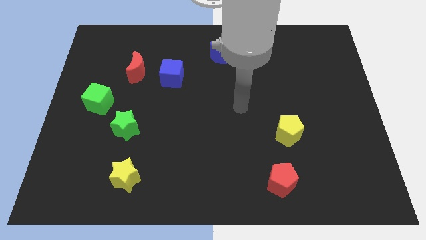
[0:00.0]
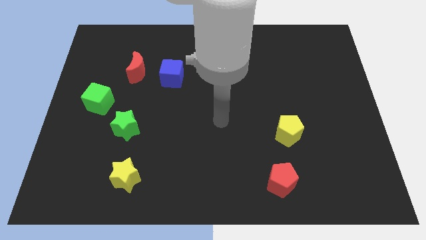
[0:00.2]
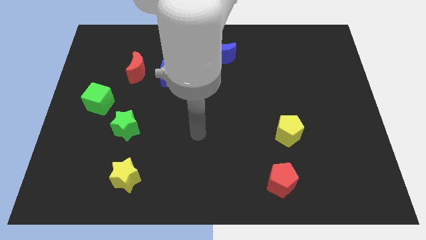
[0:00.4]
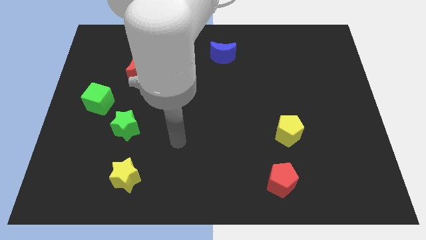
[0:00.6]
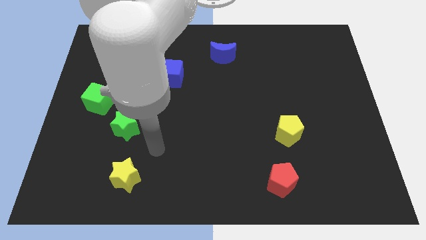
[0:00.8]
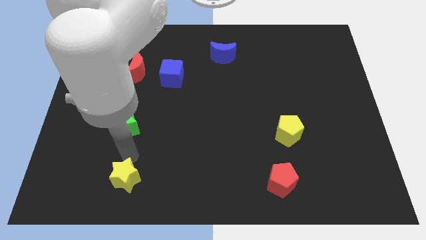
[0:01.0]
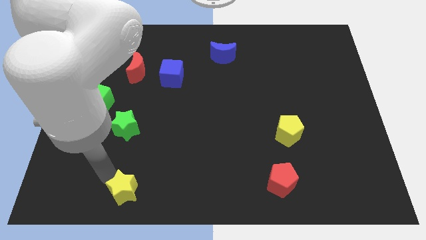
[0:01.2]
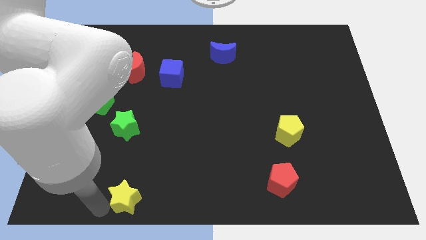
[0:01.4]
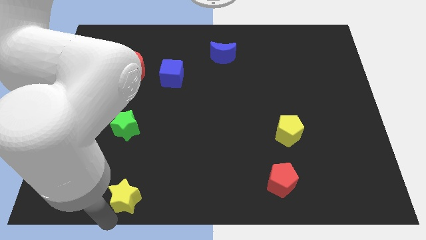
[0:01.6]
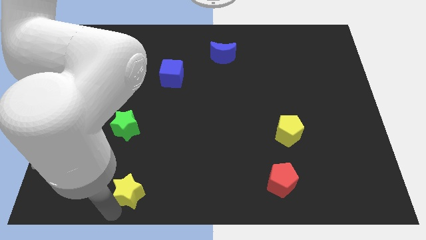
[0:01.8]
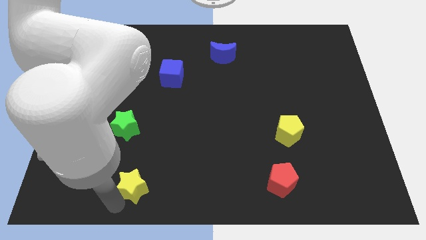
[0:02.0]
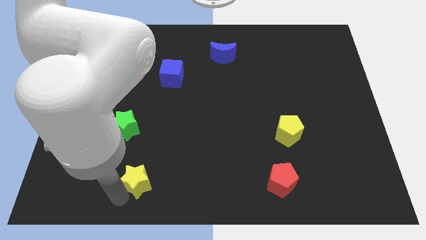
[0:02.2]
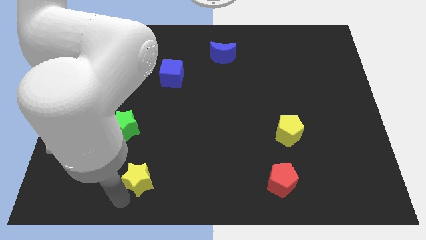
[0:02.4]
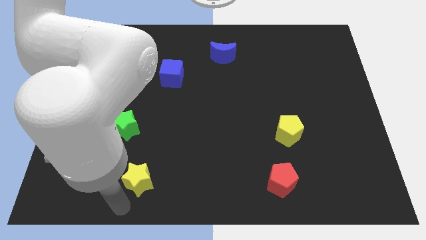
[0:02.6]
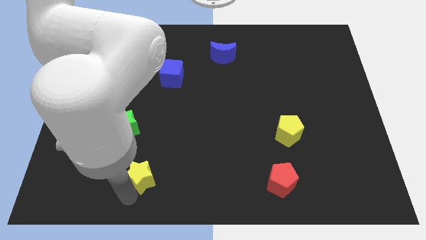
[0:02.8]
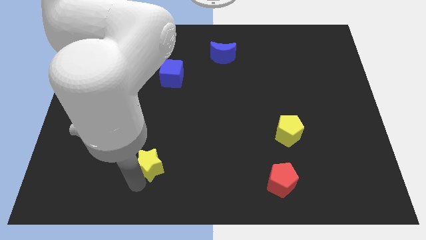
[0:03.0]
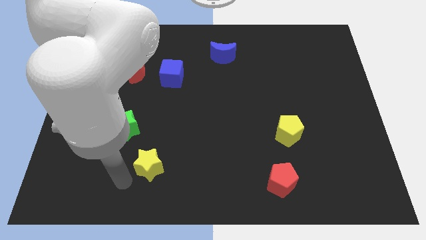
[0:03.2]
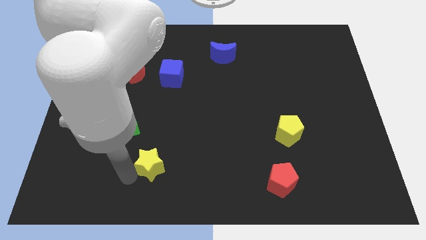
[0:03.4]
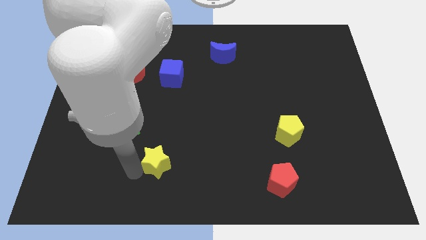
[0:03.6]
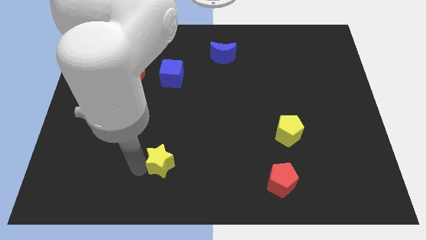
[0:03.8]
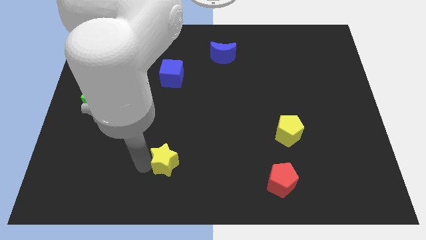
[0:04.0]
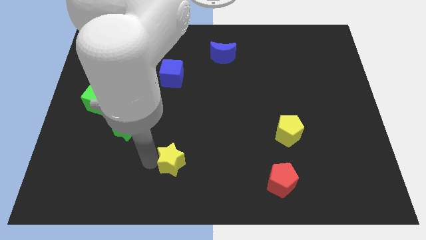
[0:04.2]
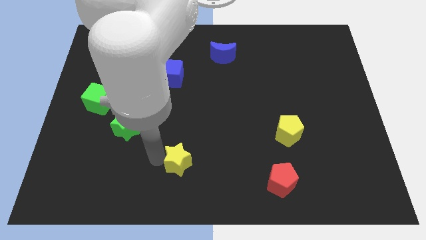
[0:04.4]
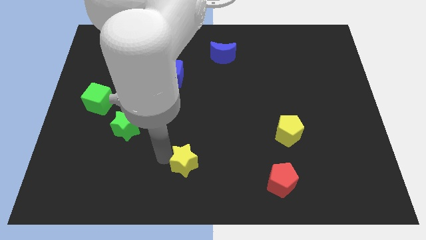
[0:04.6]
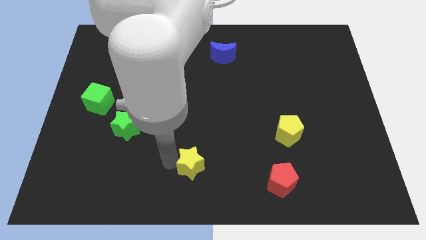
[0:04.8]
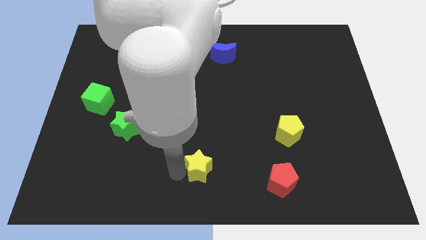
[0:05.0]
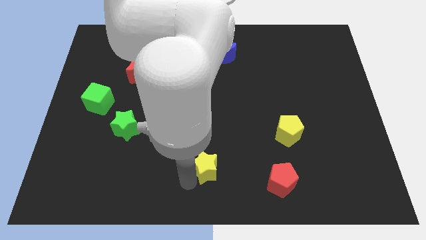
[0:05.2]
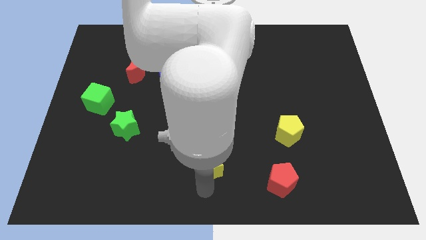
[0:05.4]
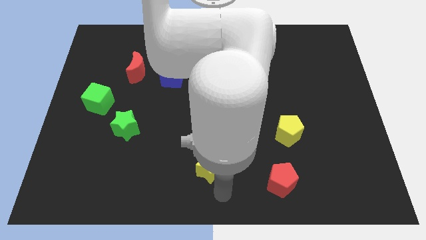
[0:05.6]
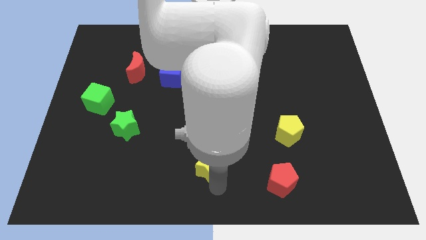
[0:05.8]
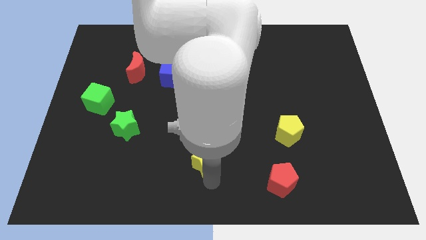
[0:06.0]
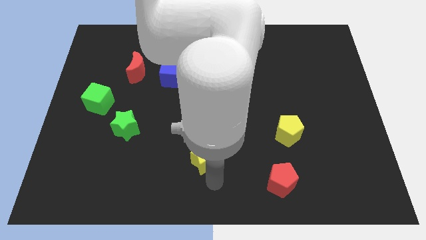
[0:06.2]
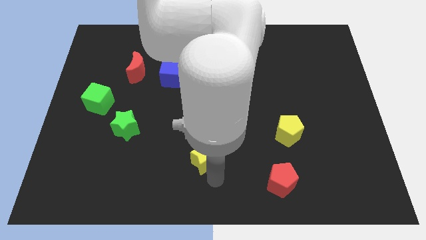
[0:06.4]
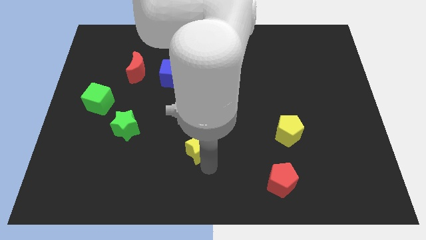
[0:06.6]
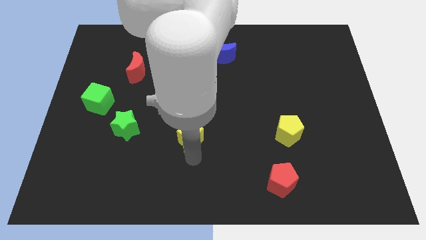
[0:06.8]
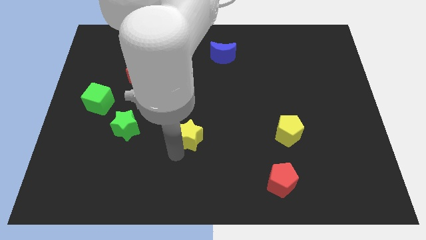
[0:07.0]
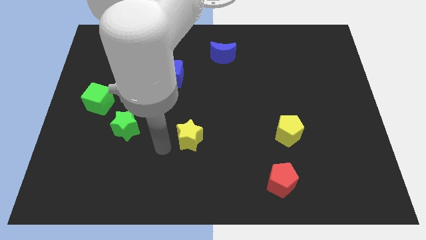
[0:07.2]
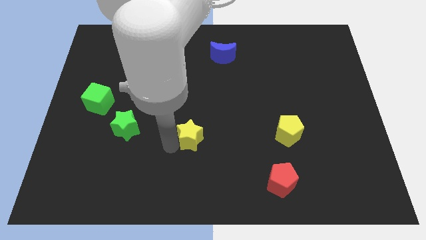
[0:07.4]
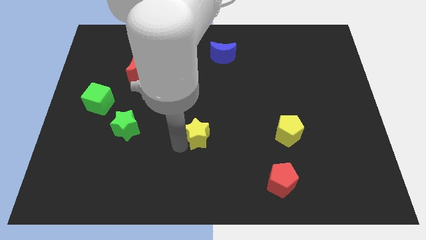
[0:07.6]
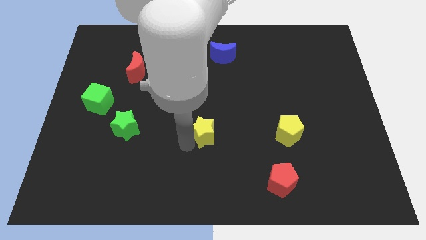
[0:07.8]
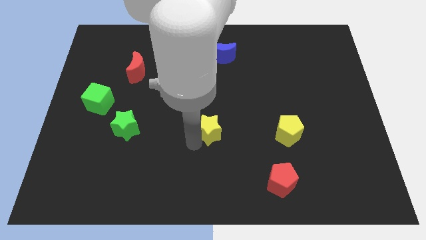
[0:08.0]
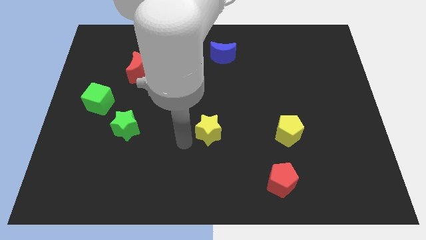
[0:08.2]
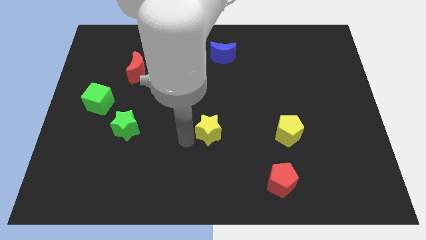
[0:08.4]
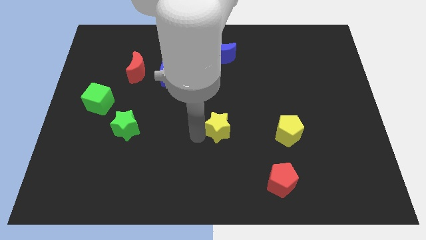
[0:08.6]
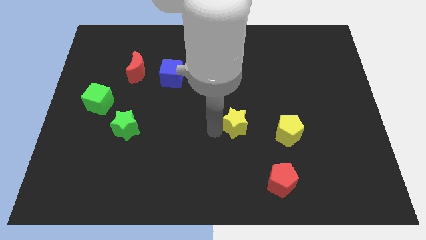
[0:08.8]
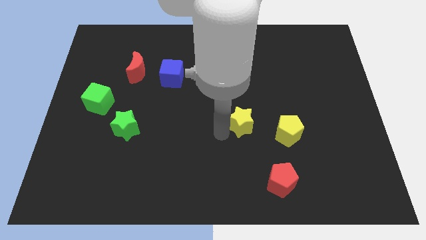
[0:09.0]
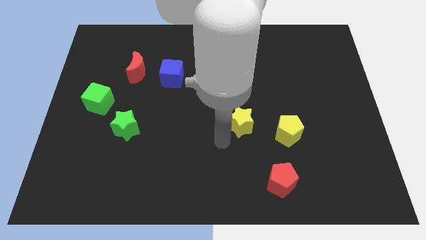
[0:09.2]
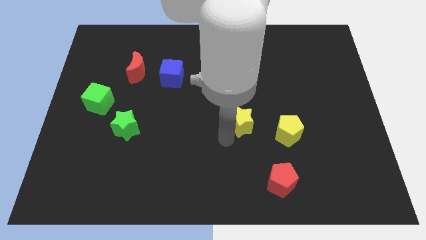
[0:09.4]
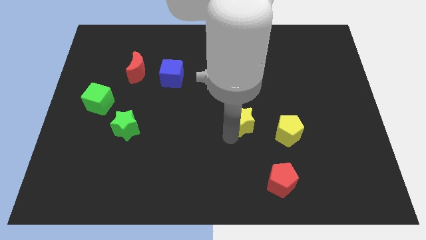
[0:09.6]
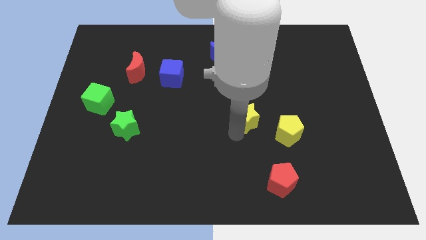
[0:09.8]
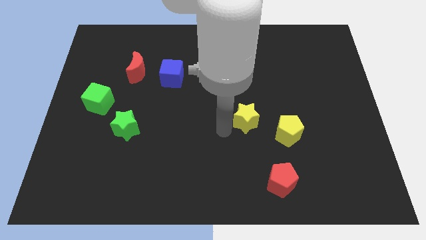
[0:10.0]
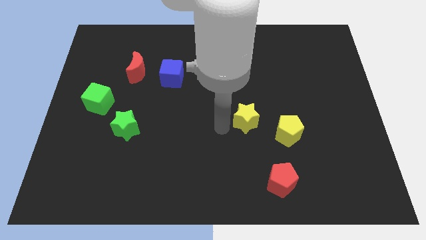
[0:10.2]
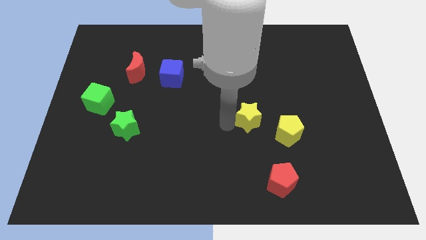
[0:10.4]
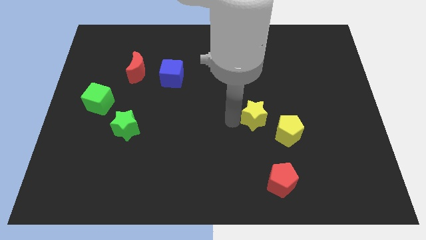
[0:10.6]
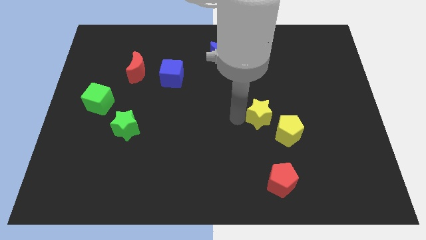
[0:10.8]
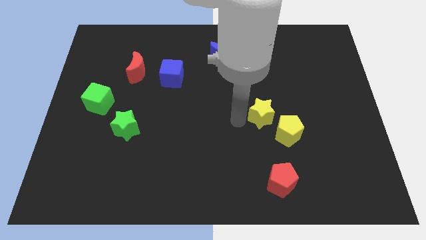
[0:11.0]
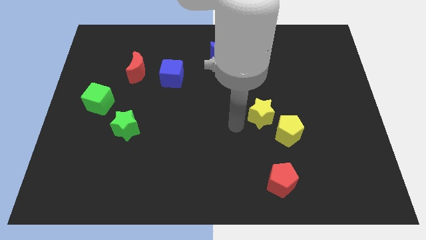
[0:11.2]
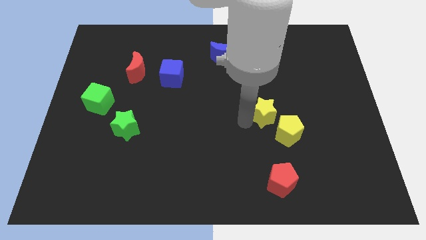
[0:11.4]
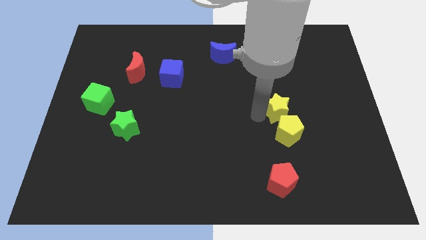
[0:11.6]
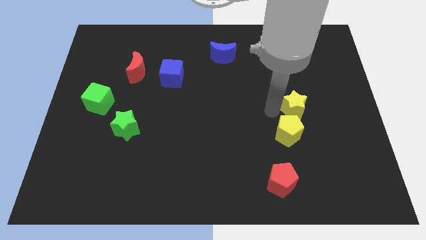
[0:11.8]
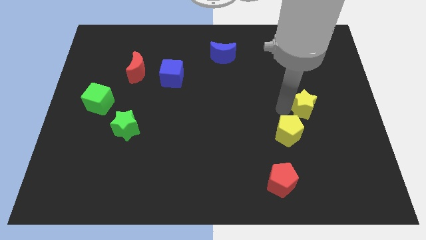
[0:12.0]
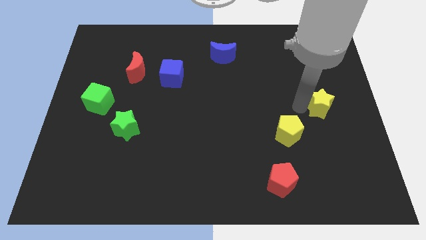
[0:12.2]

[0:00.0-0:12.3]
slide the yellow star to the center right

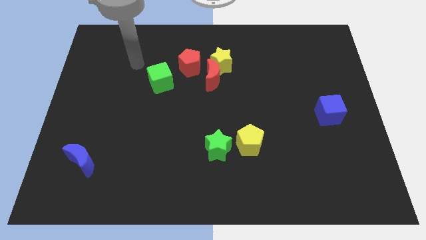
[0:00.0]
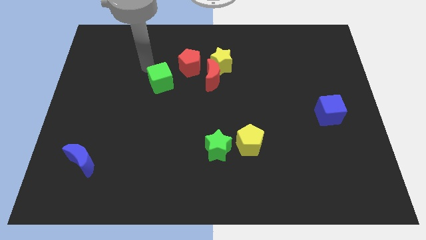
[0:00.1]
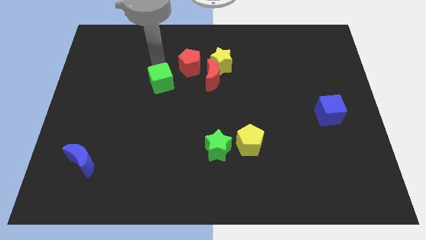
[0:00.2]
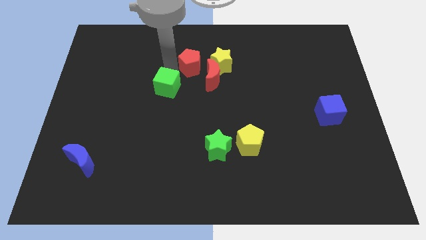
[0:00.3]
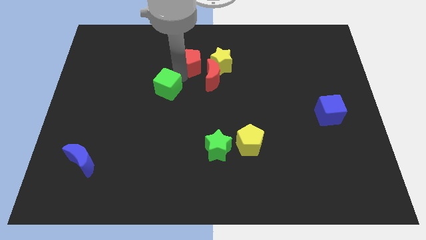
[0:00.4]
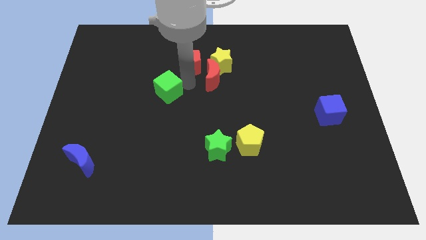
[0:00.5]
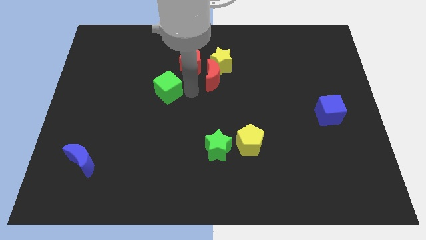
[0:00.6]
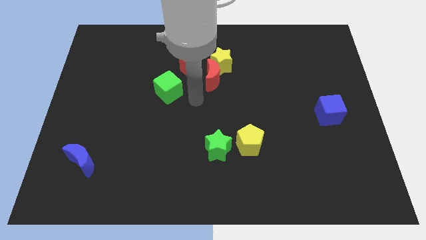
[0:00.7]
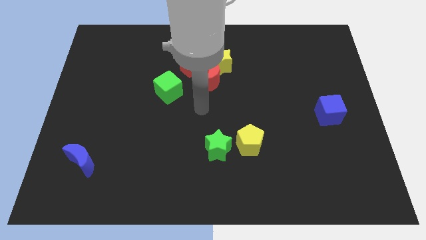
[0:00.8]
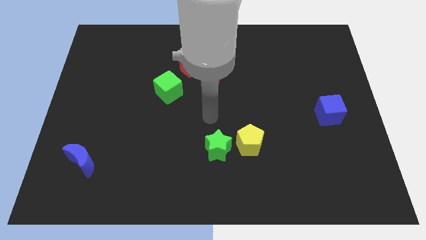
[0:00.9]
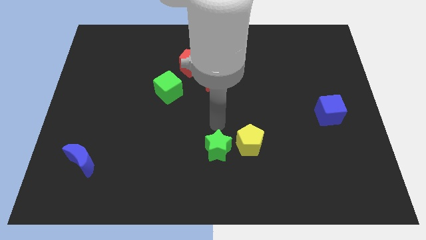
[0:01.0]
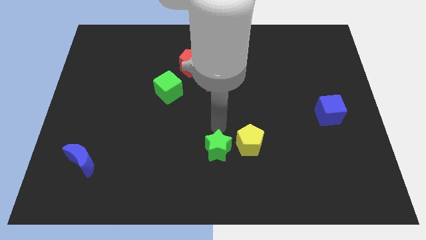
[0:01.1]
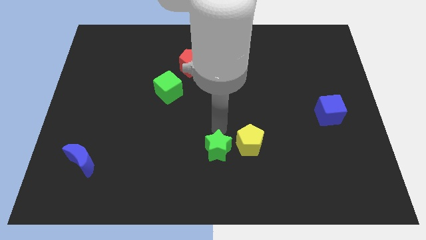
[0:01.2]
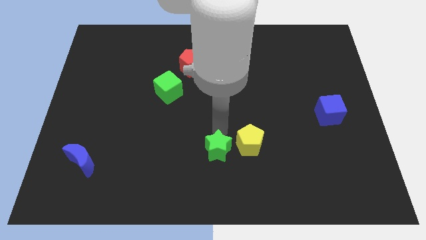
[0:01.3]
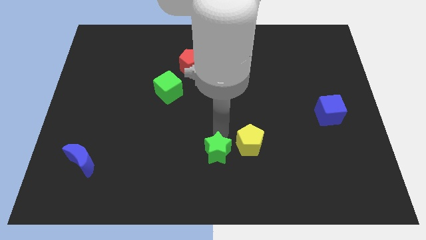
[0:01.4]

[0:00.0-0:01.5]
slide the green star to the bottom side
